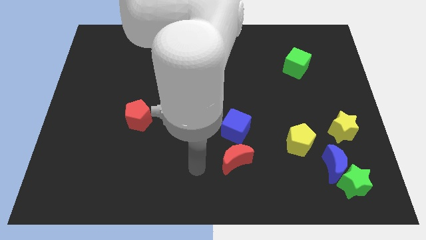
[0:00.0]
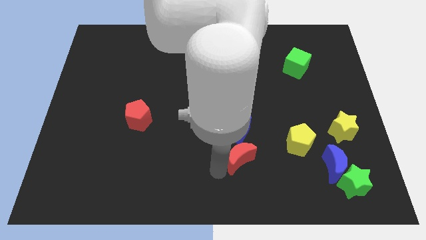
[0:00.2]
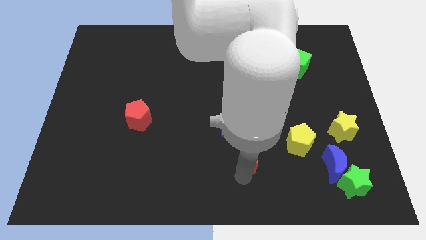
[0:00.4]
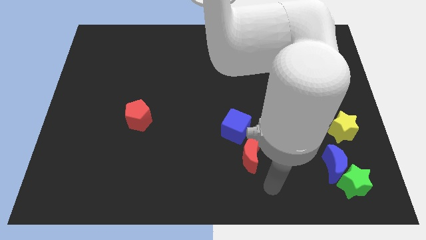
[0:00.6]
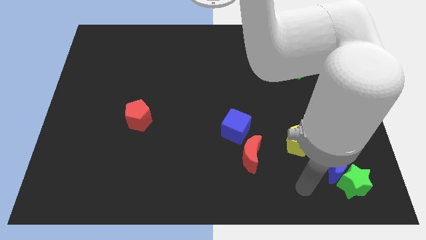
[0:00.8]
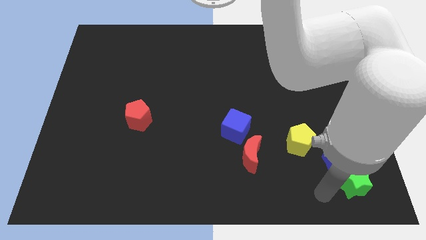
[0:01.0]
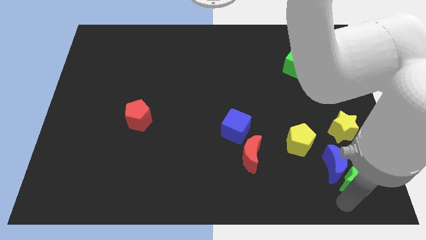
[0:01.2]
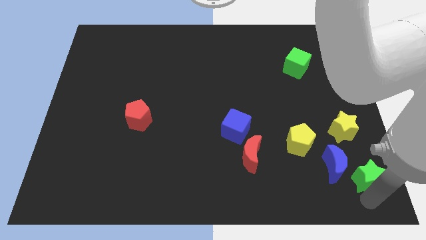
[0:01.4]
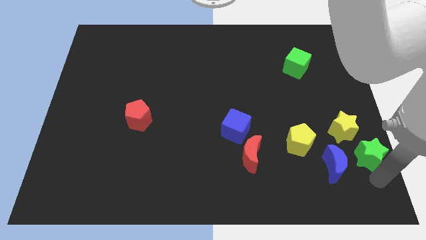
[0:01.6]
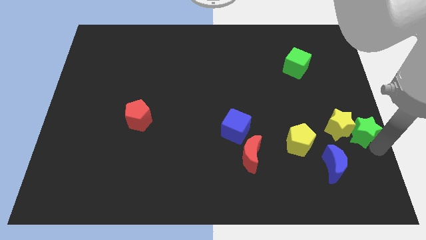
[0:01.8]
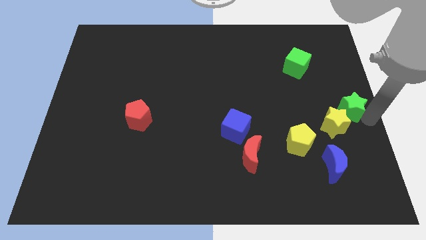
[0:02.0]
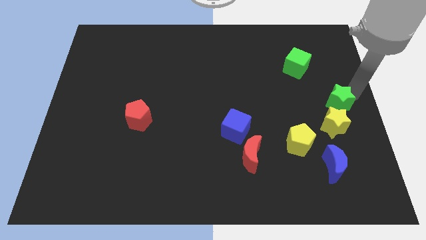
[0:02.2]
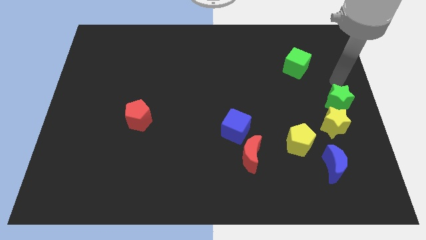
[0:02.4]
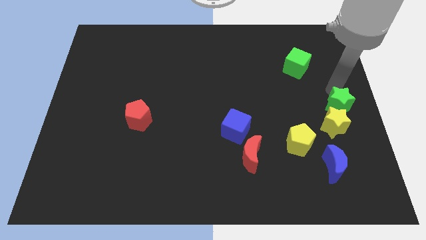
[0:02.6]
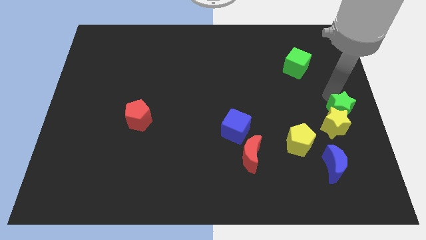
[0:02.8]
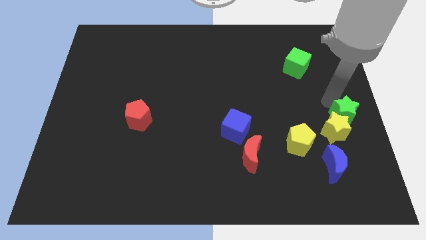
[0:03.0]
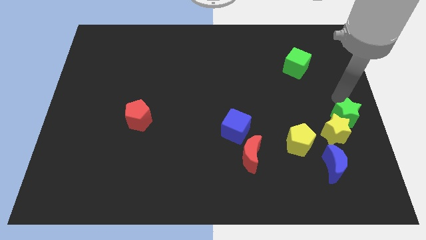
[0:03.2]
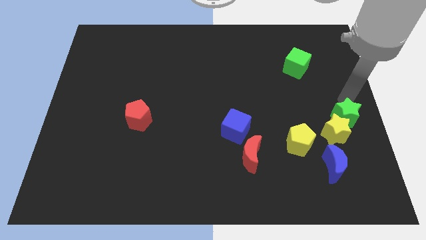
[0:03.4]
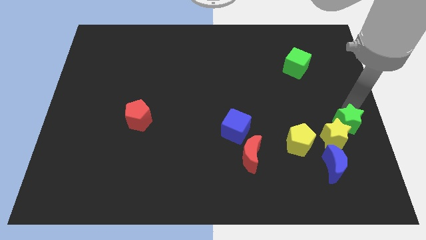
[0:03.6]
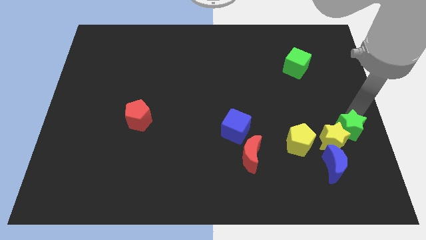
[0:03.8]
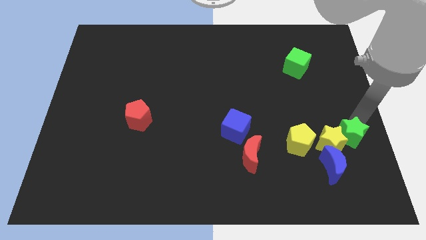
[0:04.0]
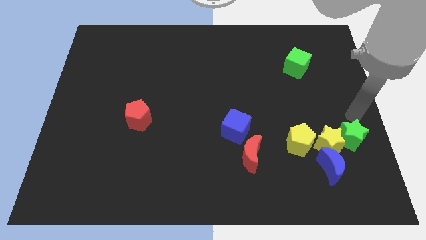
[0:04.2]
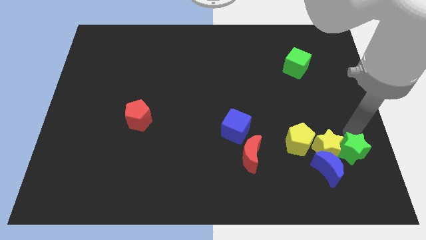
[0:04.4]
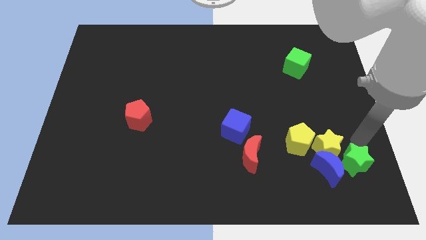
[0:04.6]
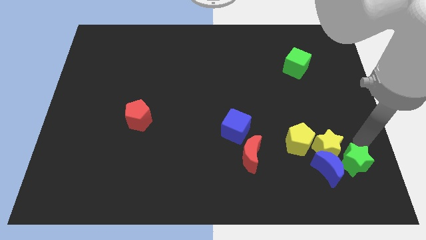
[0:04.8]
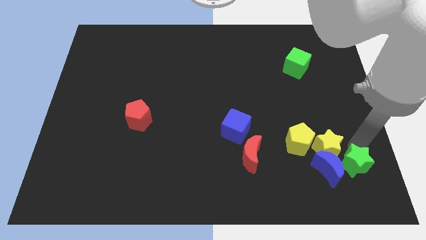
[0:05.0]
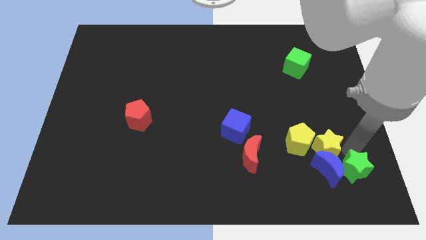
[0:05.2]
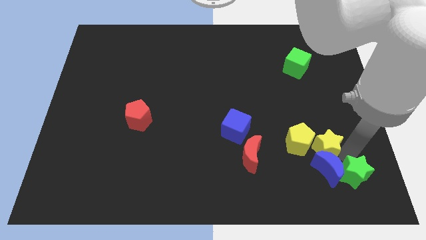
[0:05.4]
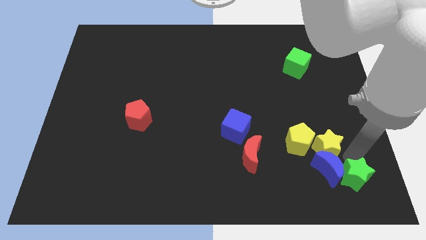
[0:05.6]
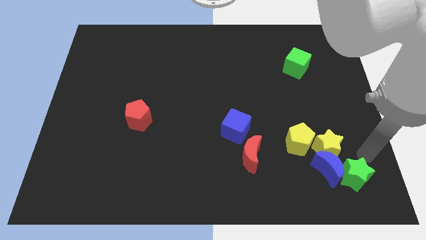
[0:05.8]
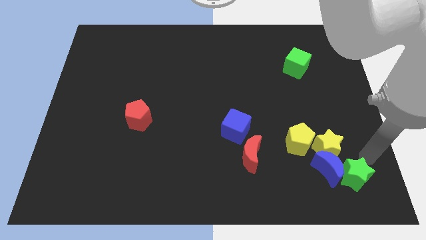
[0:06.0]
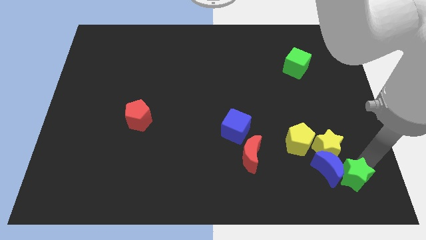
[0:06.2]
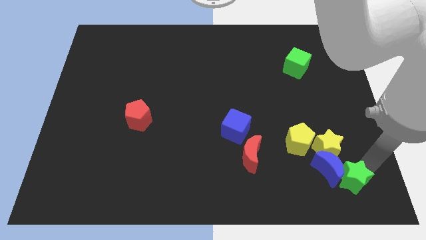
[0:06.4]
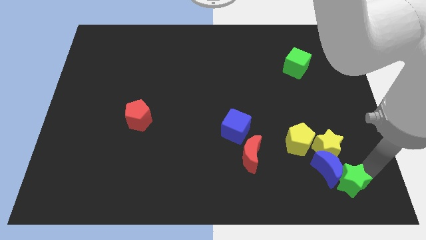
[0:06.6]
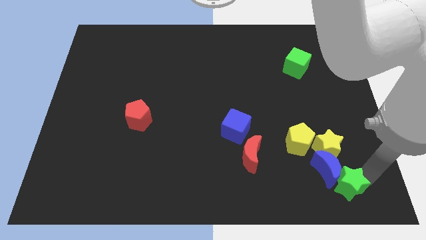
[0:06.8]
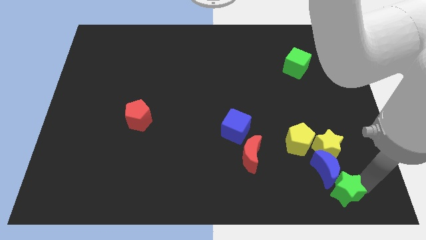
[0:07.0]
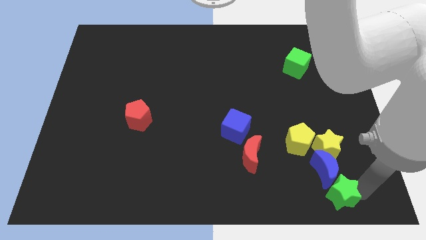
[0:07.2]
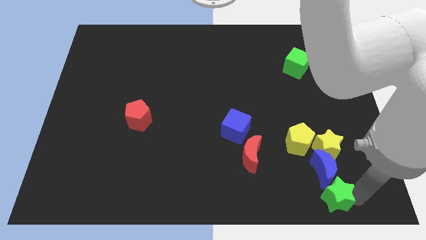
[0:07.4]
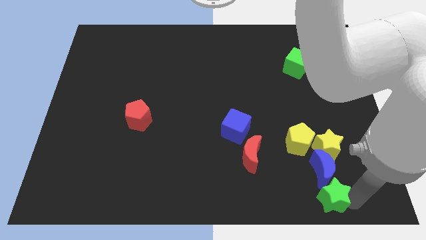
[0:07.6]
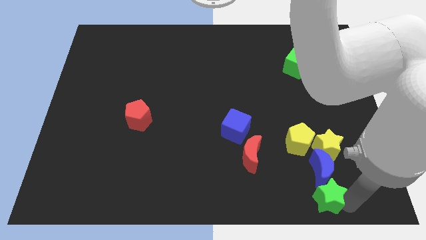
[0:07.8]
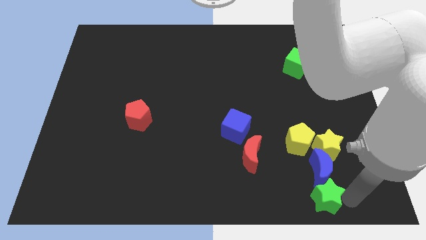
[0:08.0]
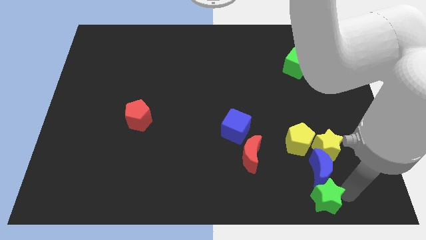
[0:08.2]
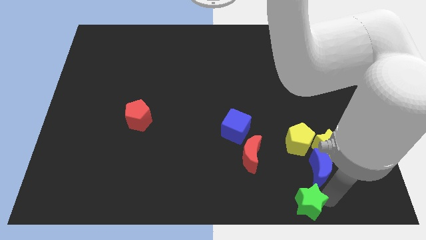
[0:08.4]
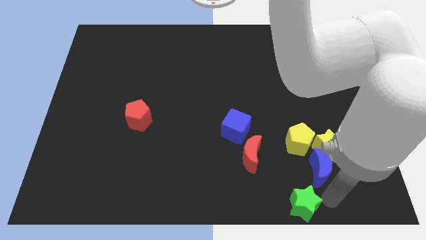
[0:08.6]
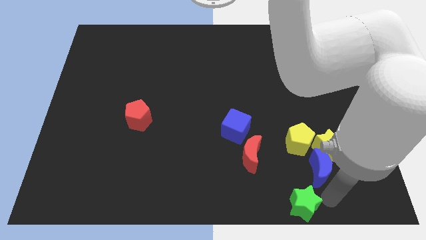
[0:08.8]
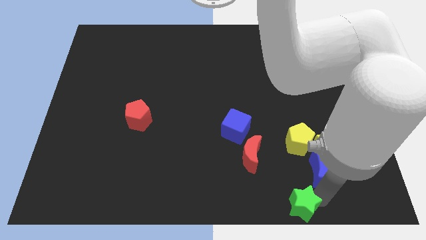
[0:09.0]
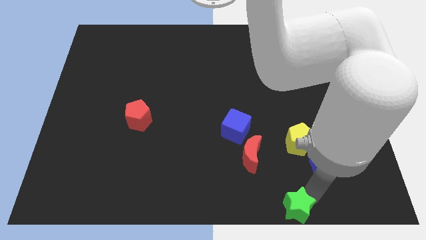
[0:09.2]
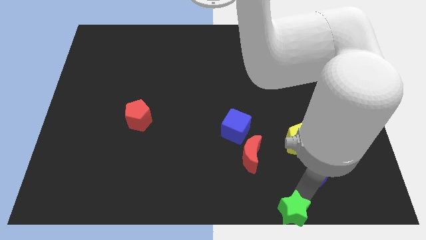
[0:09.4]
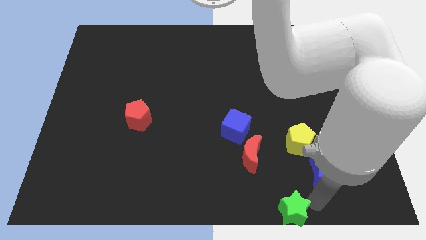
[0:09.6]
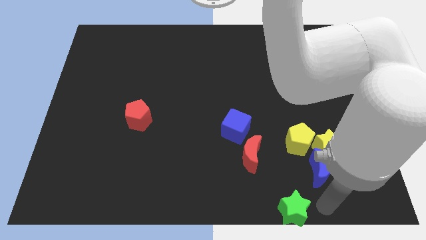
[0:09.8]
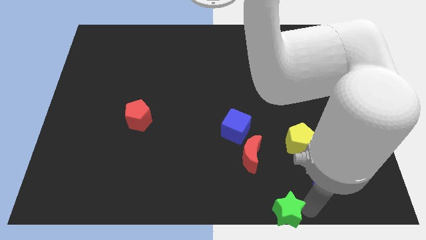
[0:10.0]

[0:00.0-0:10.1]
put the green star to the bottom

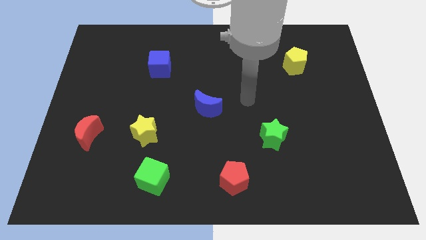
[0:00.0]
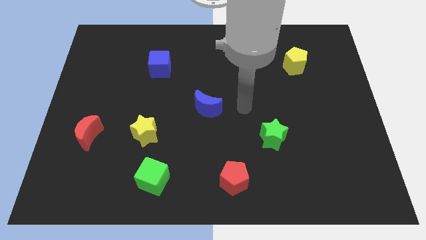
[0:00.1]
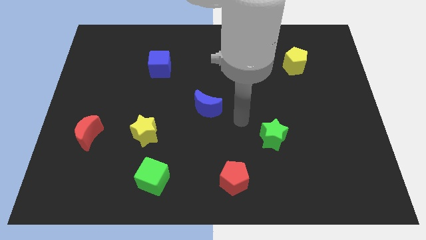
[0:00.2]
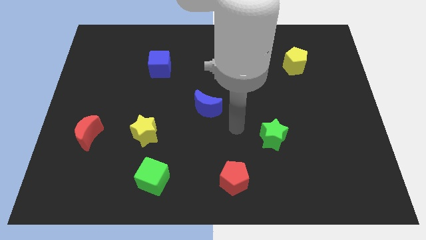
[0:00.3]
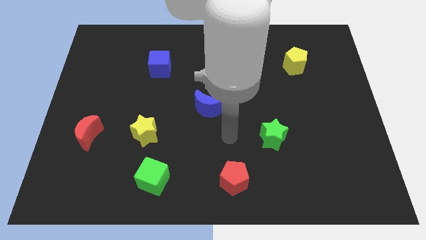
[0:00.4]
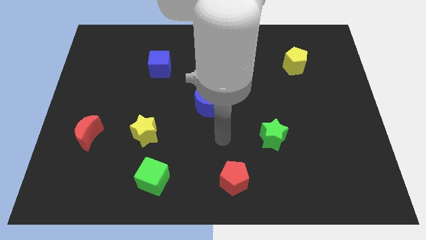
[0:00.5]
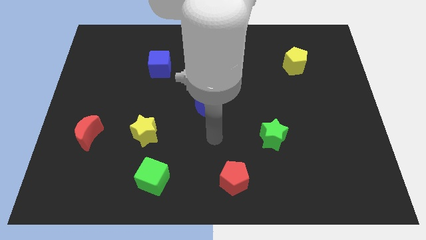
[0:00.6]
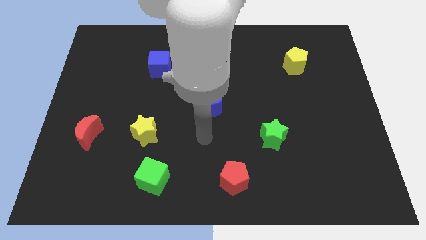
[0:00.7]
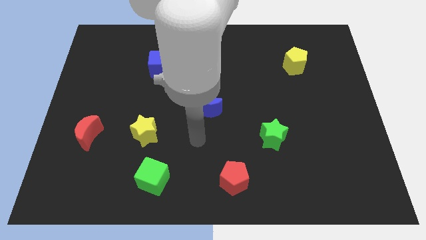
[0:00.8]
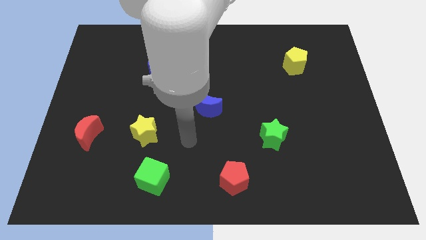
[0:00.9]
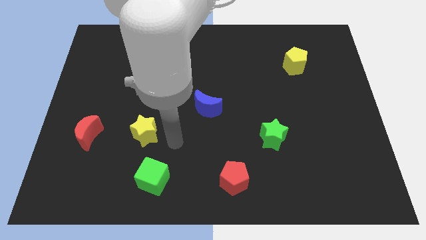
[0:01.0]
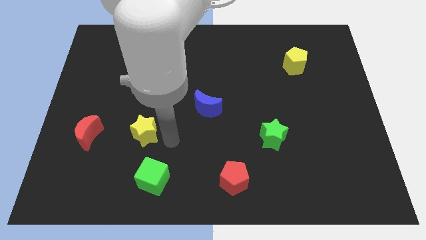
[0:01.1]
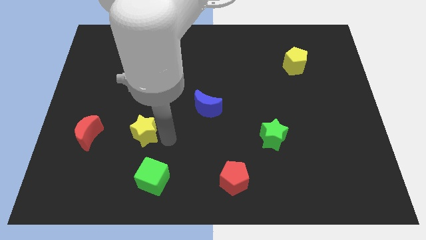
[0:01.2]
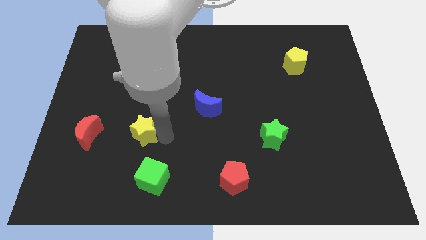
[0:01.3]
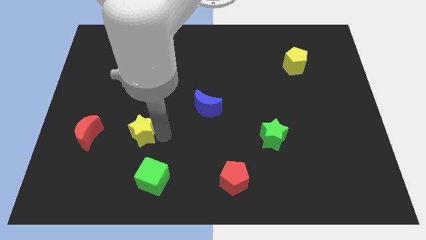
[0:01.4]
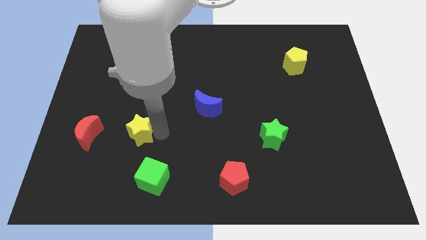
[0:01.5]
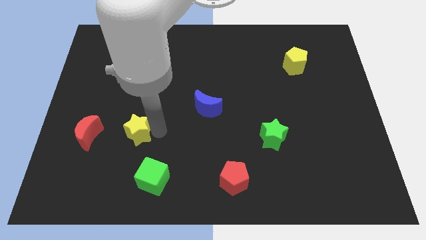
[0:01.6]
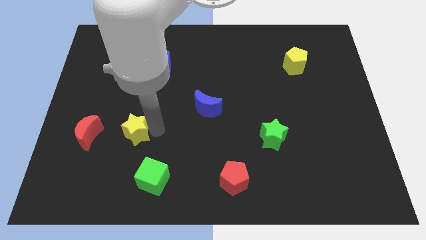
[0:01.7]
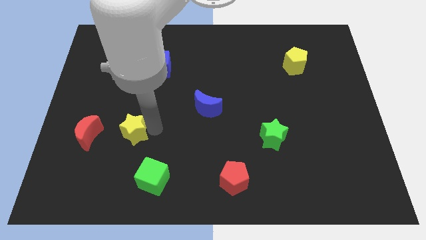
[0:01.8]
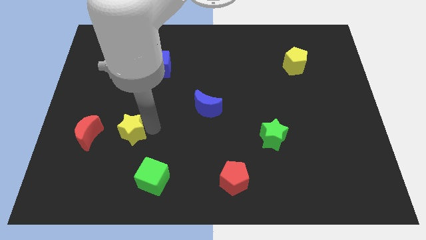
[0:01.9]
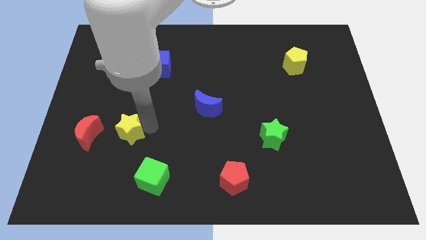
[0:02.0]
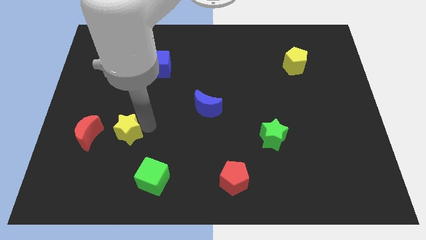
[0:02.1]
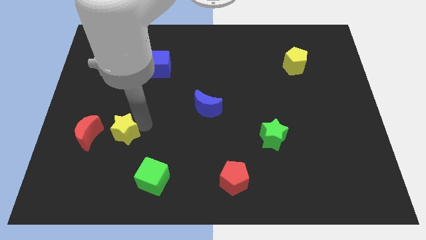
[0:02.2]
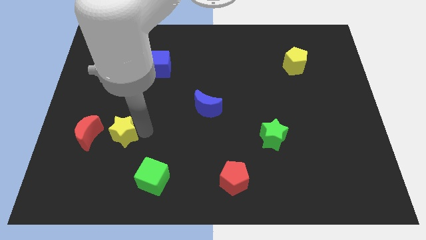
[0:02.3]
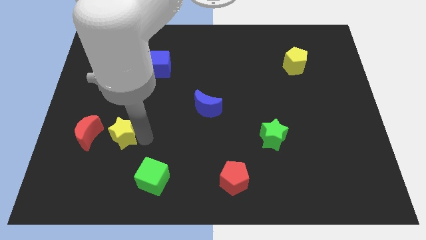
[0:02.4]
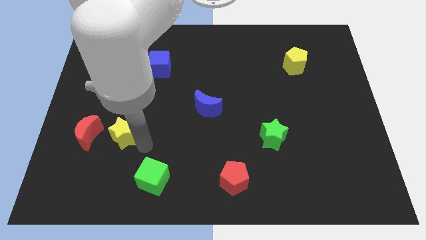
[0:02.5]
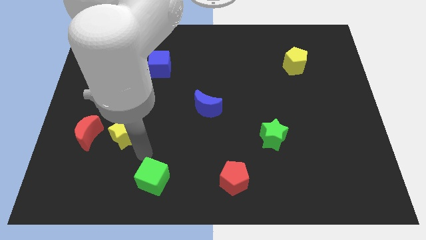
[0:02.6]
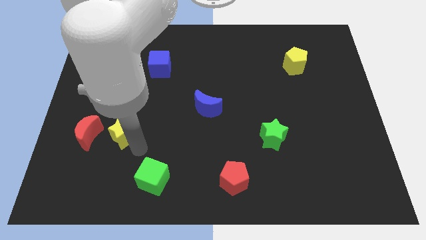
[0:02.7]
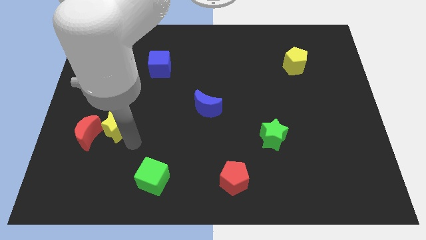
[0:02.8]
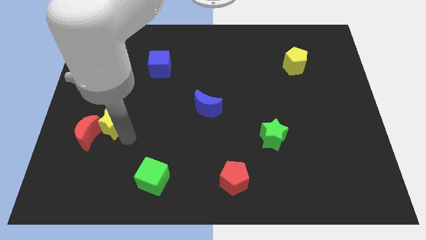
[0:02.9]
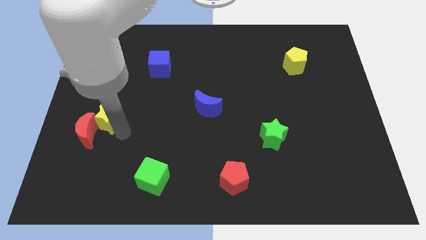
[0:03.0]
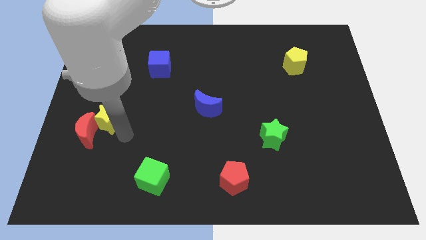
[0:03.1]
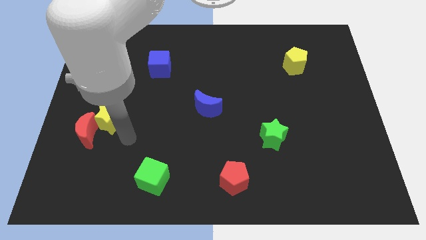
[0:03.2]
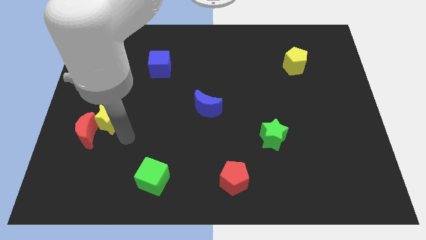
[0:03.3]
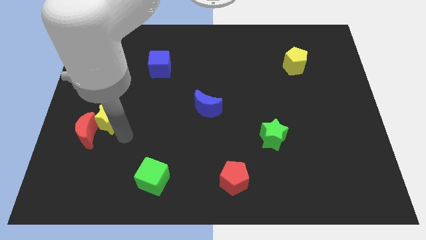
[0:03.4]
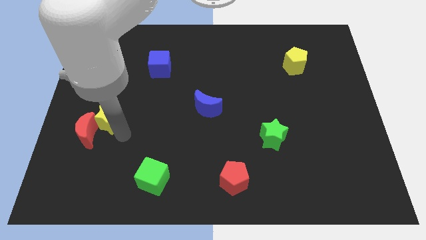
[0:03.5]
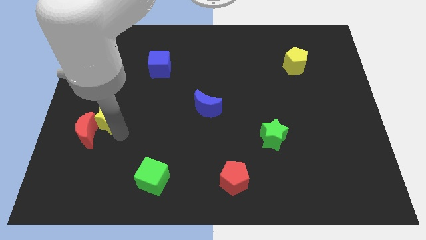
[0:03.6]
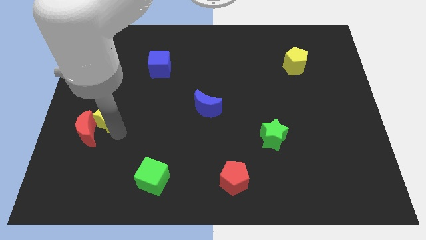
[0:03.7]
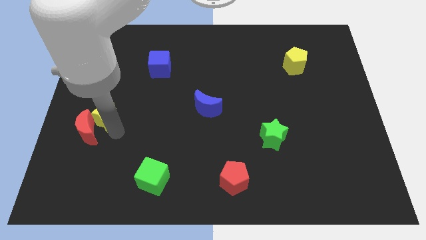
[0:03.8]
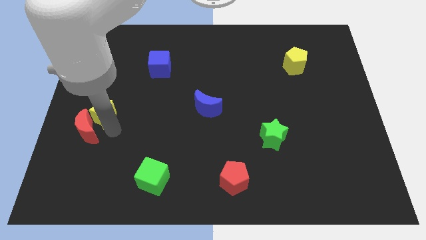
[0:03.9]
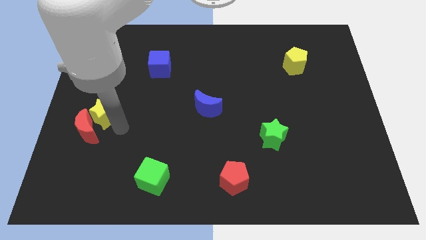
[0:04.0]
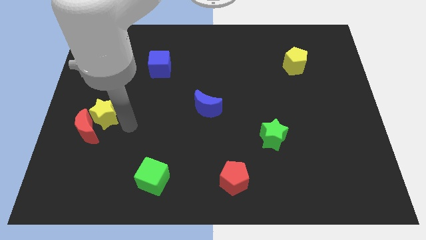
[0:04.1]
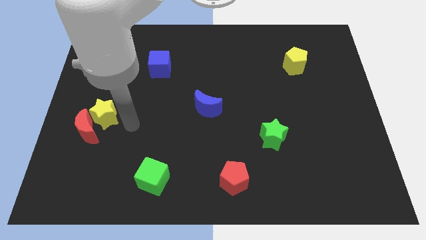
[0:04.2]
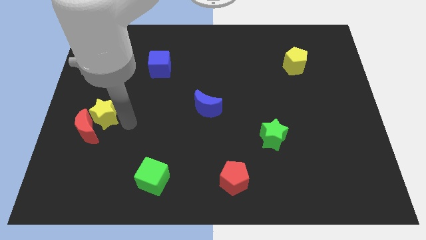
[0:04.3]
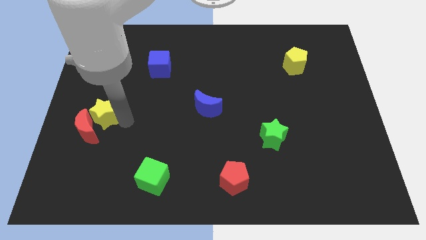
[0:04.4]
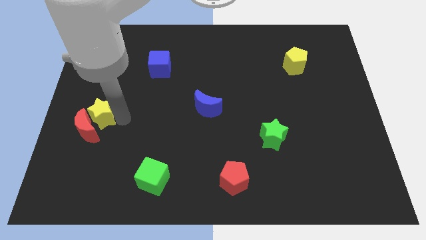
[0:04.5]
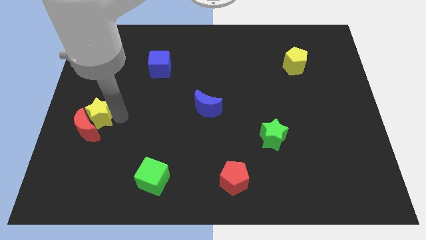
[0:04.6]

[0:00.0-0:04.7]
move the yellow star to the center left
